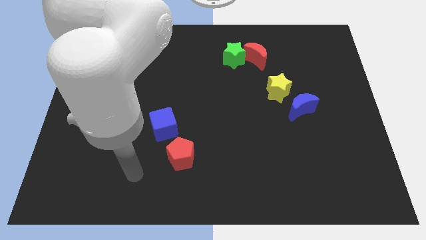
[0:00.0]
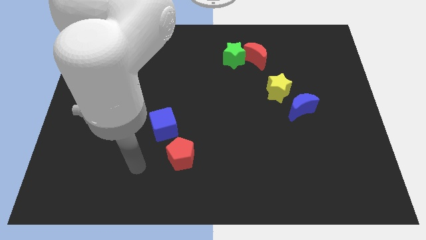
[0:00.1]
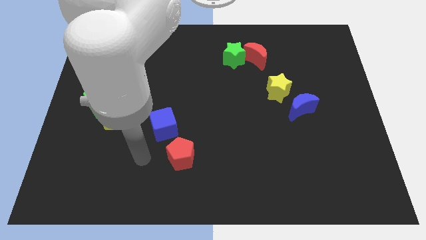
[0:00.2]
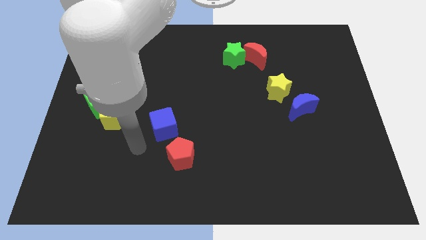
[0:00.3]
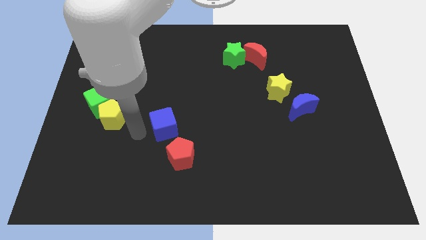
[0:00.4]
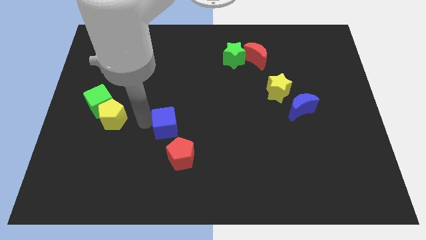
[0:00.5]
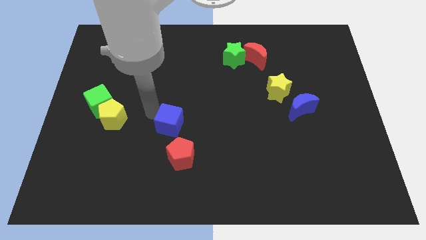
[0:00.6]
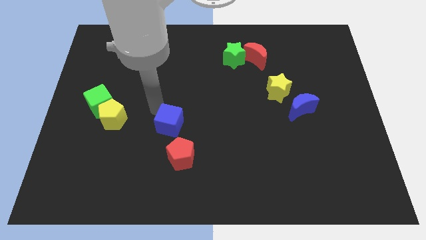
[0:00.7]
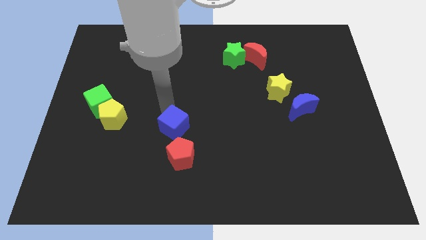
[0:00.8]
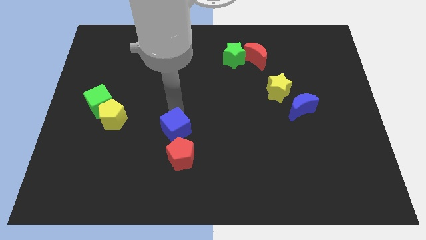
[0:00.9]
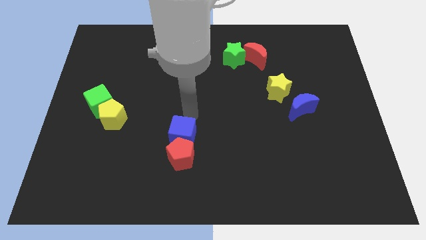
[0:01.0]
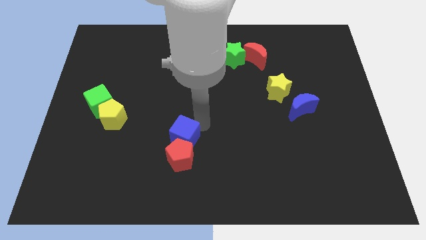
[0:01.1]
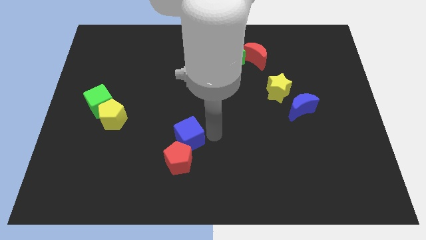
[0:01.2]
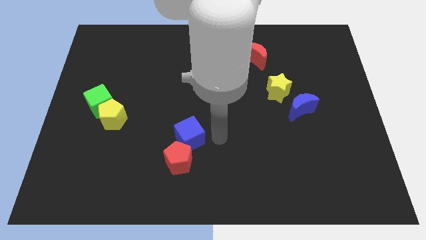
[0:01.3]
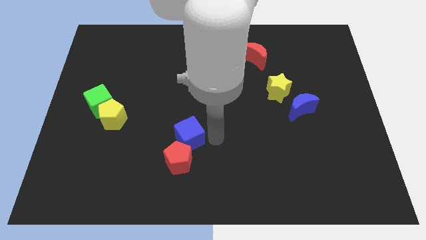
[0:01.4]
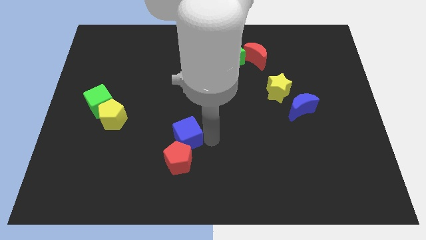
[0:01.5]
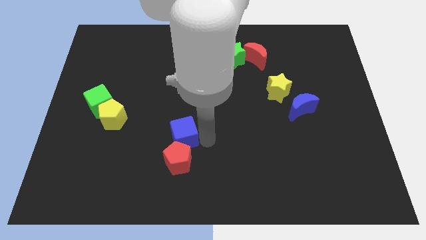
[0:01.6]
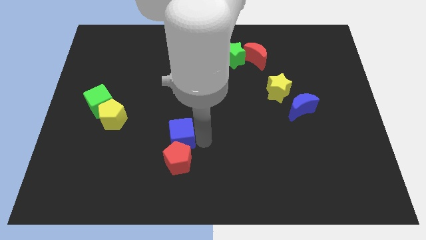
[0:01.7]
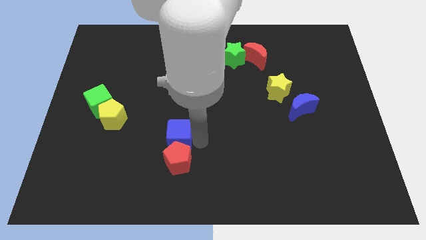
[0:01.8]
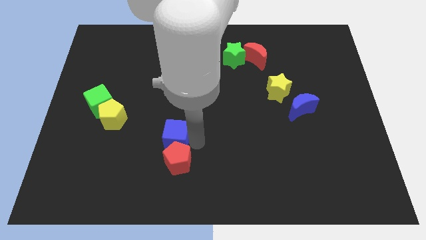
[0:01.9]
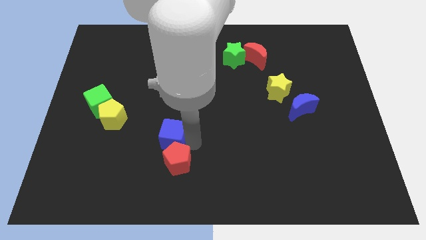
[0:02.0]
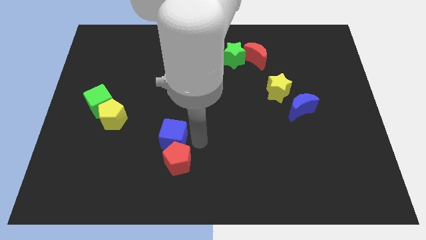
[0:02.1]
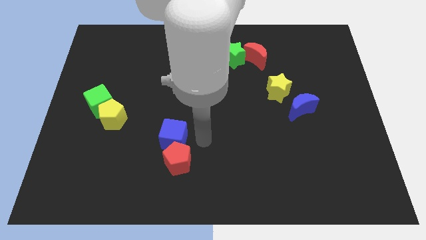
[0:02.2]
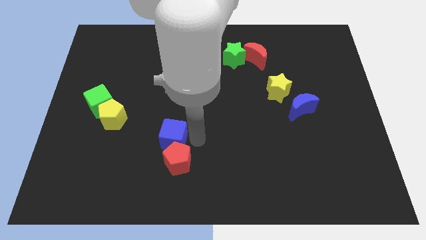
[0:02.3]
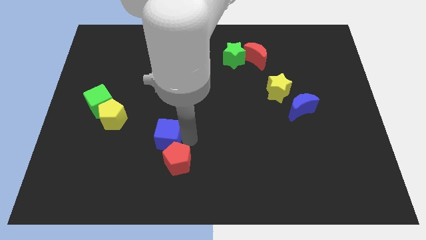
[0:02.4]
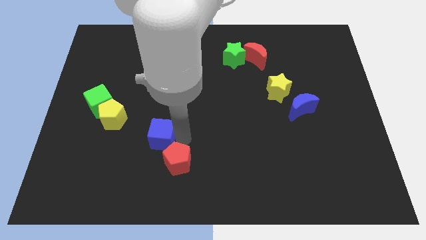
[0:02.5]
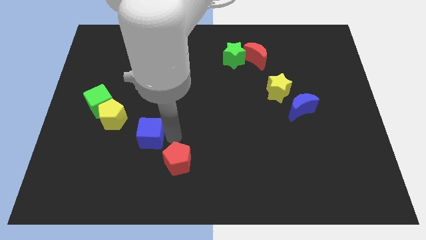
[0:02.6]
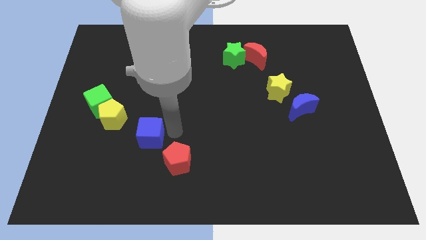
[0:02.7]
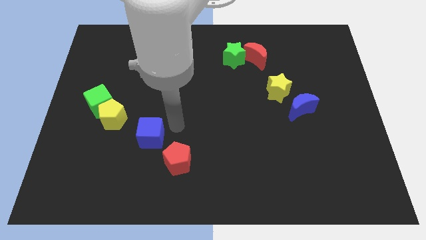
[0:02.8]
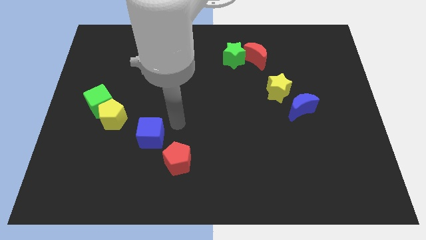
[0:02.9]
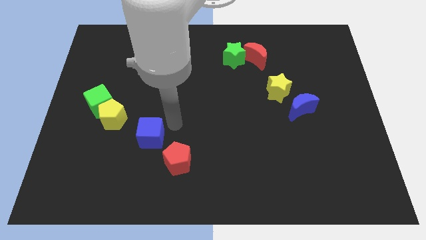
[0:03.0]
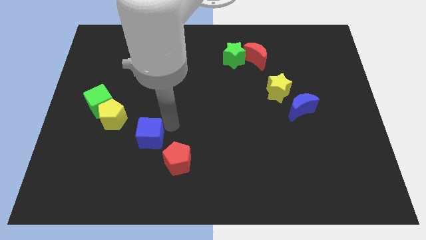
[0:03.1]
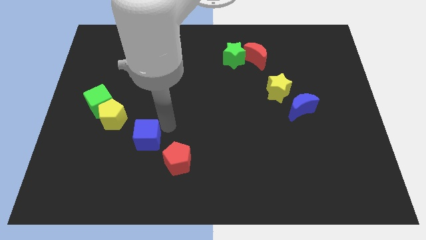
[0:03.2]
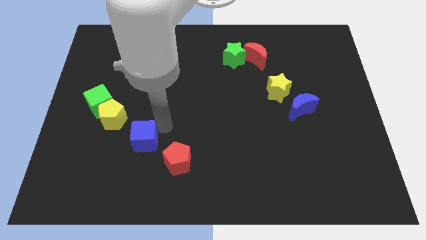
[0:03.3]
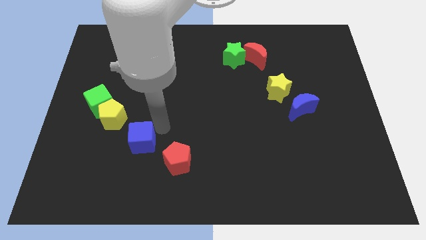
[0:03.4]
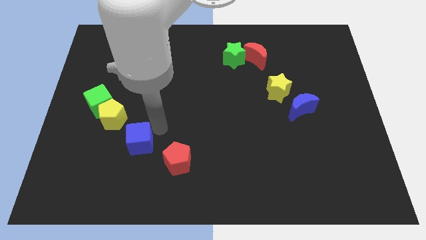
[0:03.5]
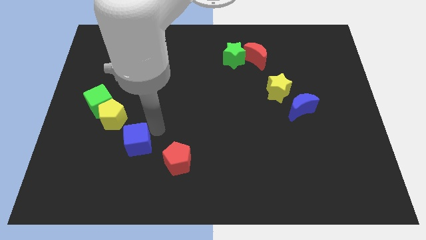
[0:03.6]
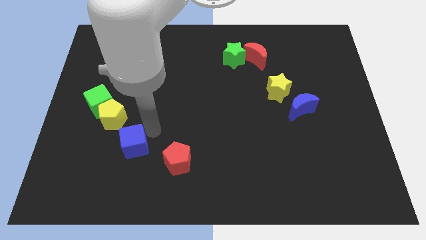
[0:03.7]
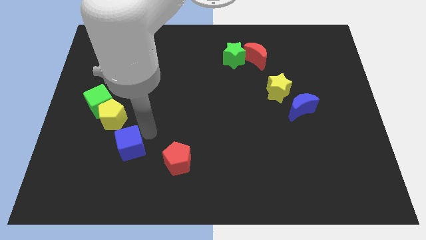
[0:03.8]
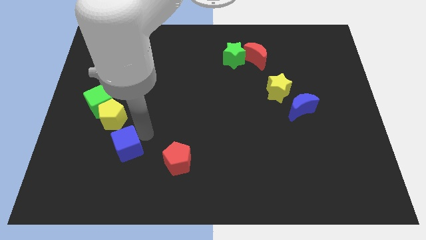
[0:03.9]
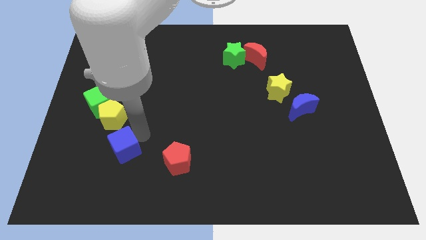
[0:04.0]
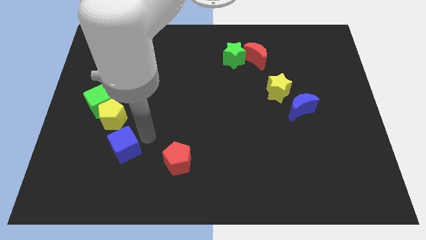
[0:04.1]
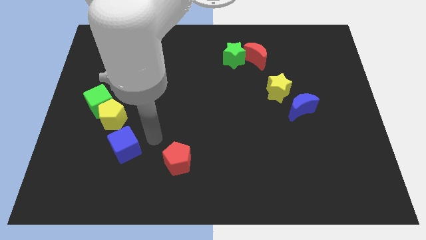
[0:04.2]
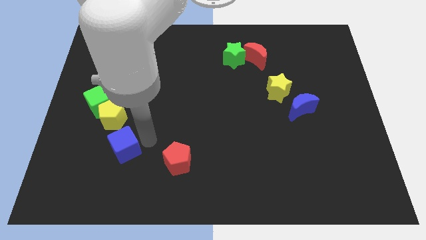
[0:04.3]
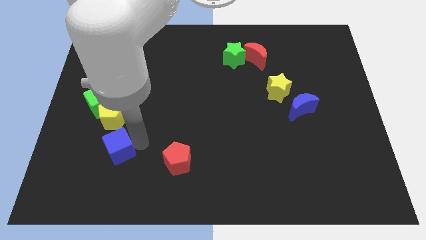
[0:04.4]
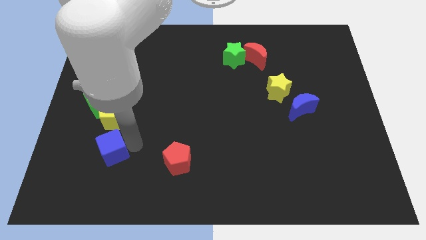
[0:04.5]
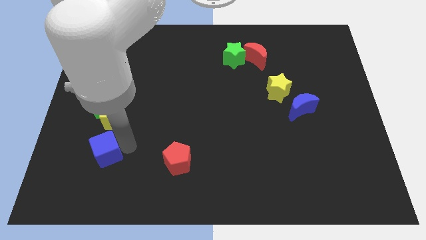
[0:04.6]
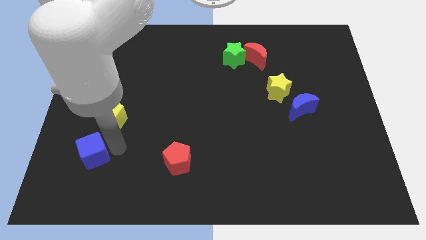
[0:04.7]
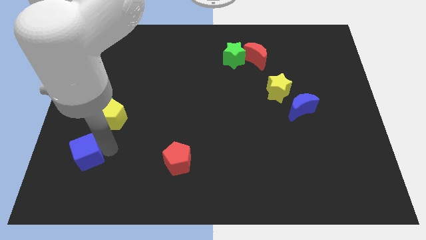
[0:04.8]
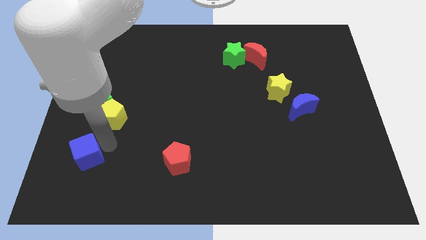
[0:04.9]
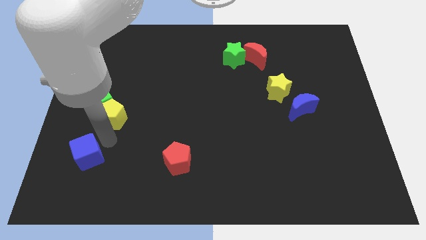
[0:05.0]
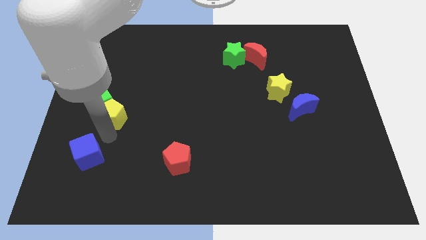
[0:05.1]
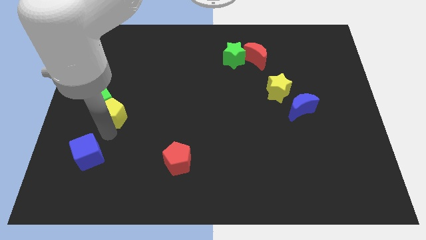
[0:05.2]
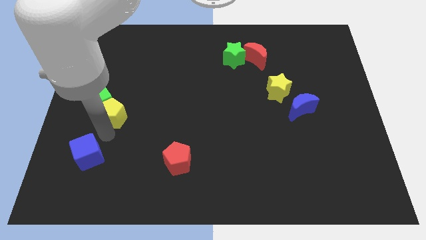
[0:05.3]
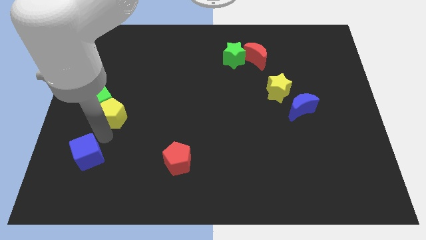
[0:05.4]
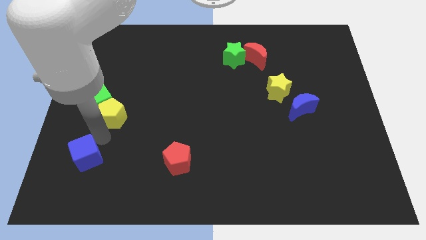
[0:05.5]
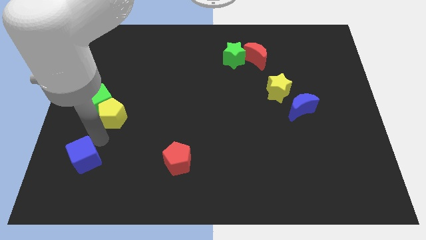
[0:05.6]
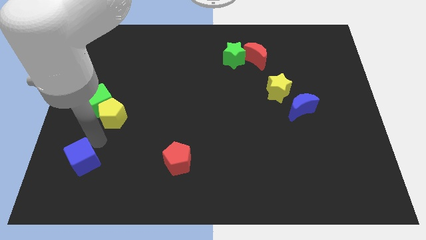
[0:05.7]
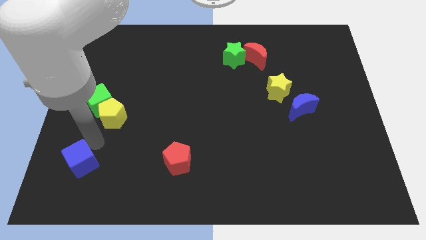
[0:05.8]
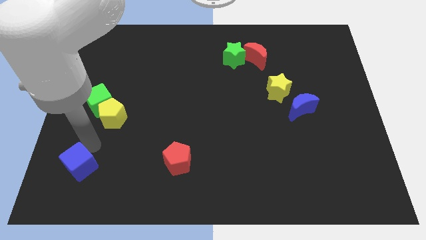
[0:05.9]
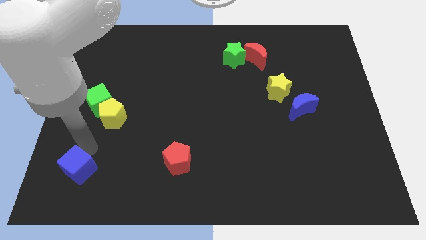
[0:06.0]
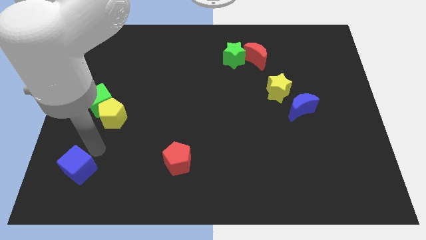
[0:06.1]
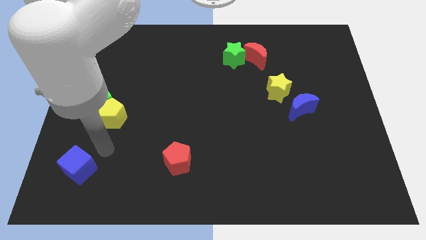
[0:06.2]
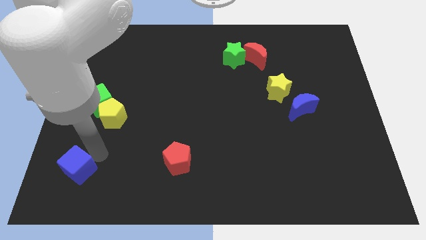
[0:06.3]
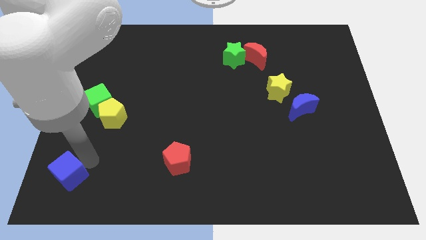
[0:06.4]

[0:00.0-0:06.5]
slide the blue cube to the bottom left of the board
